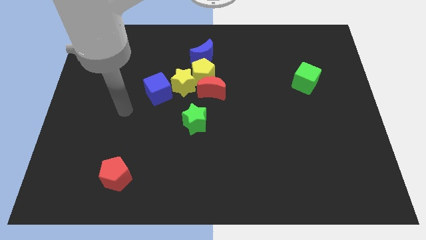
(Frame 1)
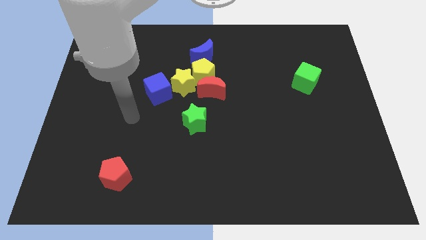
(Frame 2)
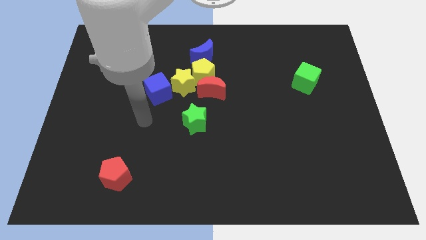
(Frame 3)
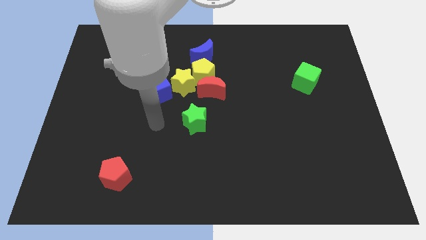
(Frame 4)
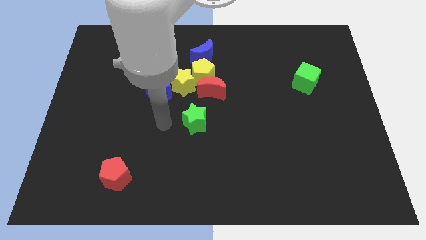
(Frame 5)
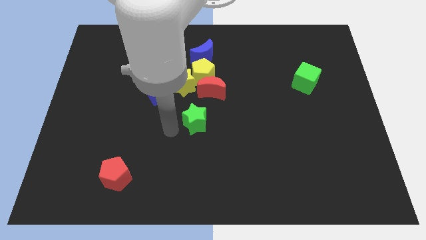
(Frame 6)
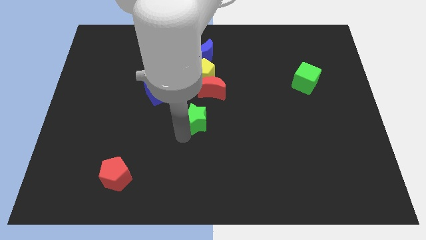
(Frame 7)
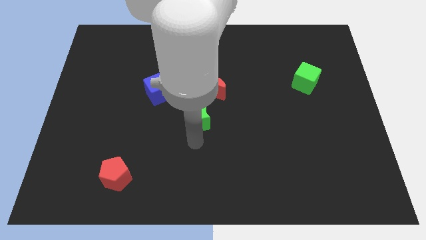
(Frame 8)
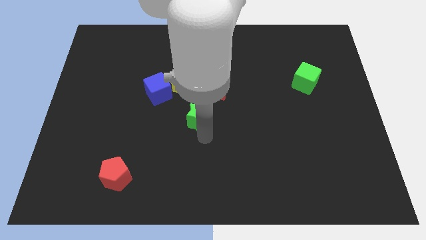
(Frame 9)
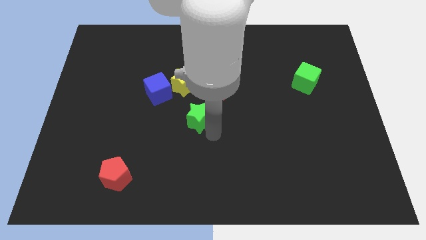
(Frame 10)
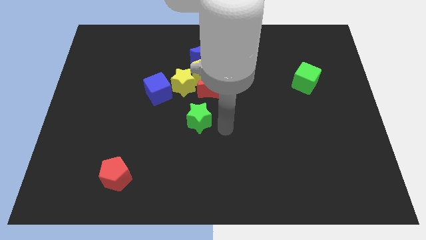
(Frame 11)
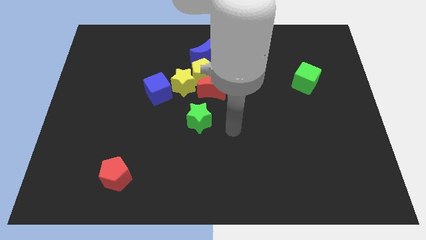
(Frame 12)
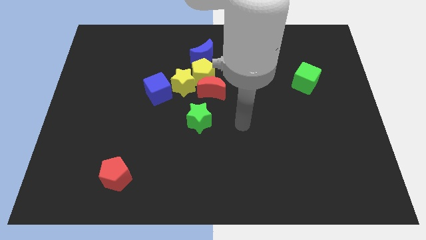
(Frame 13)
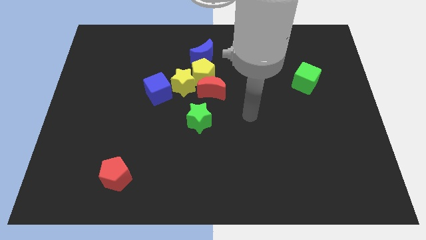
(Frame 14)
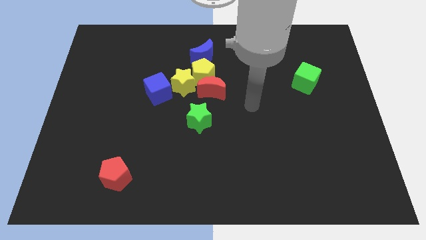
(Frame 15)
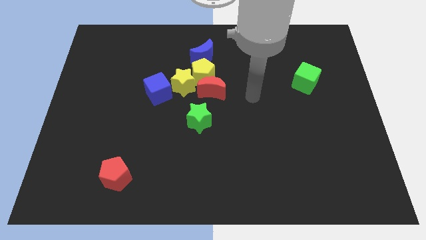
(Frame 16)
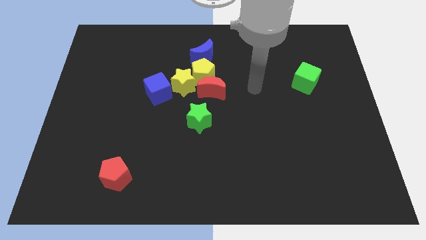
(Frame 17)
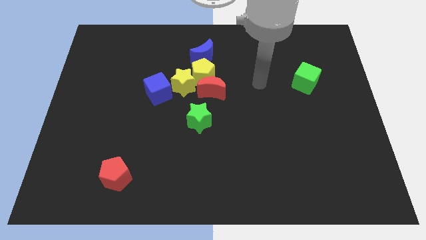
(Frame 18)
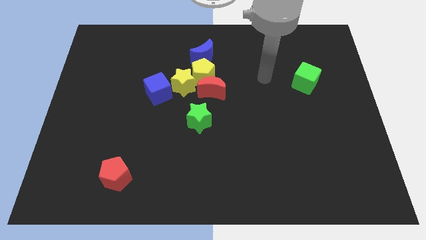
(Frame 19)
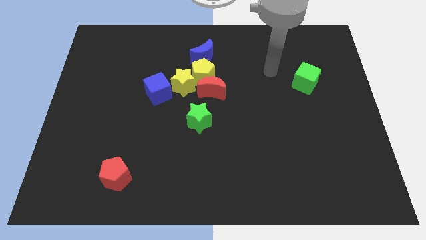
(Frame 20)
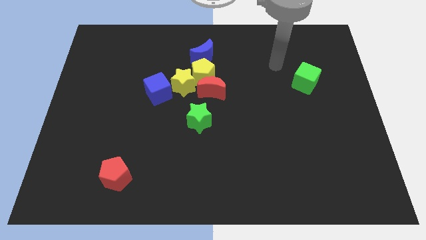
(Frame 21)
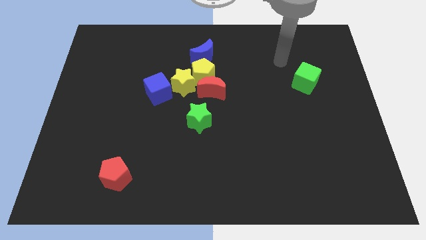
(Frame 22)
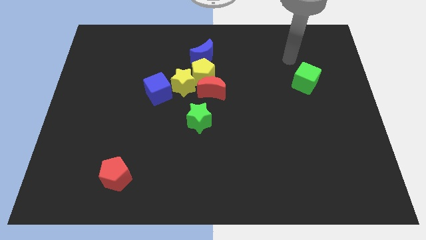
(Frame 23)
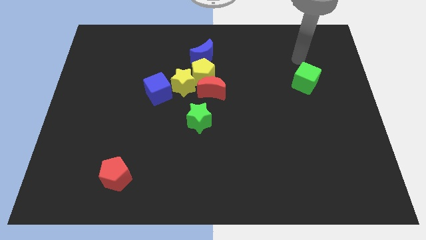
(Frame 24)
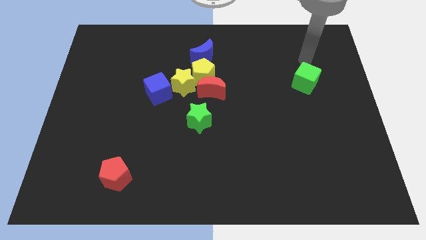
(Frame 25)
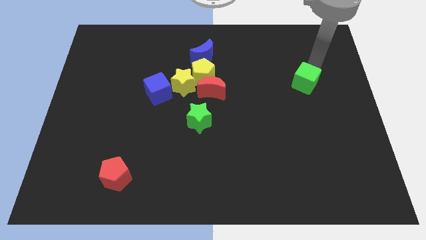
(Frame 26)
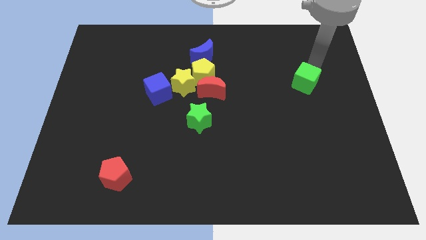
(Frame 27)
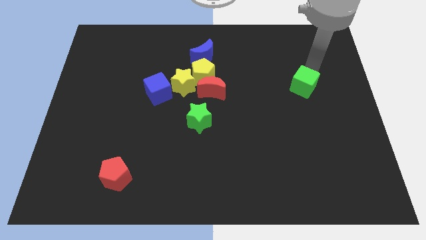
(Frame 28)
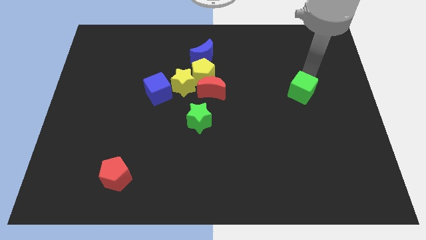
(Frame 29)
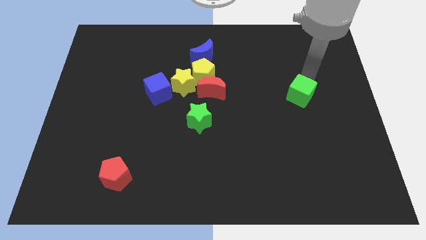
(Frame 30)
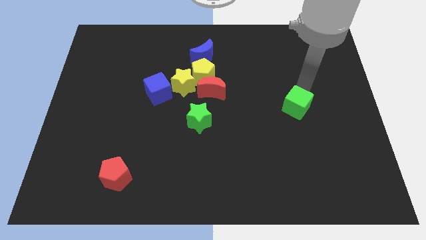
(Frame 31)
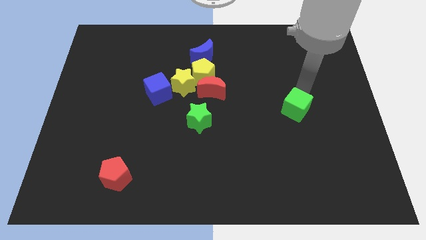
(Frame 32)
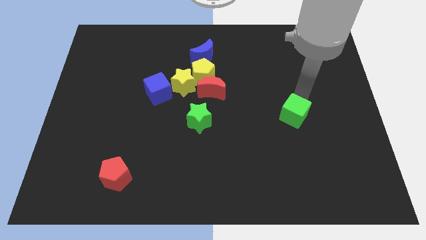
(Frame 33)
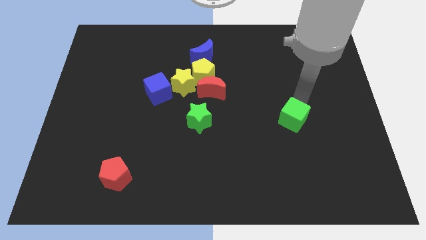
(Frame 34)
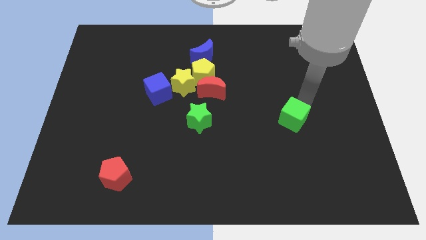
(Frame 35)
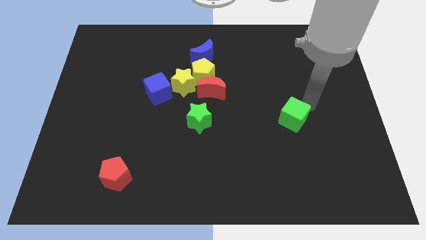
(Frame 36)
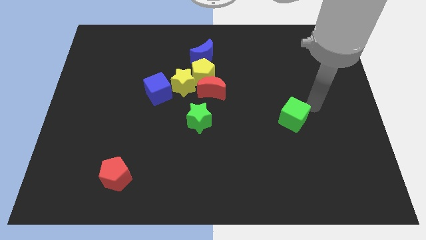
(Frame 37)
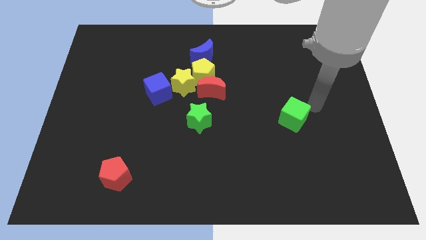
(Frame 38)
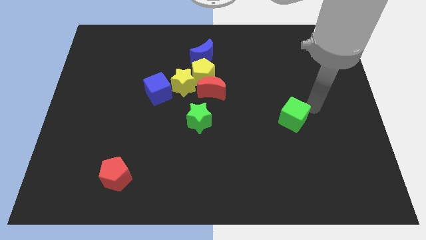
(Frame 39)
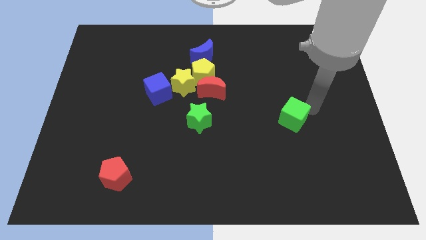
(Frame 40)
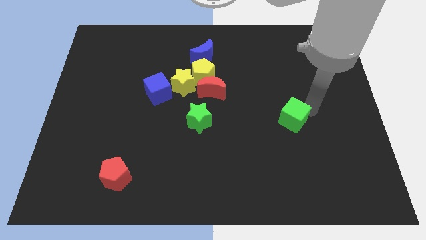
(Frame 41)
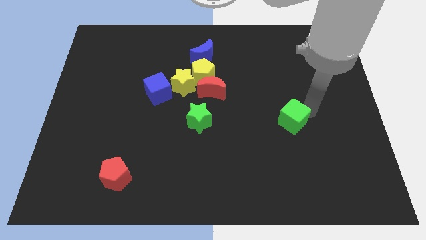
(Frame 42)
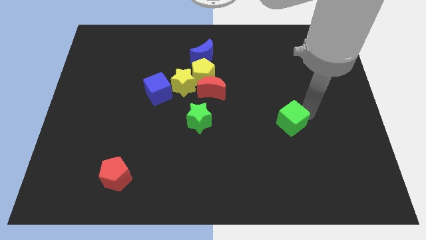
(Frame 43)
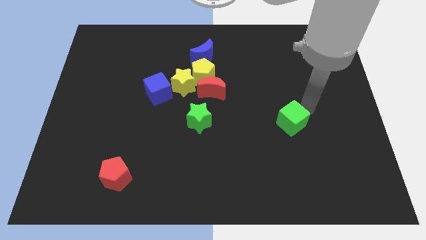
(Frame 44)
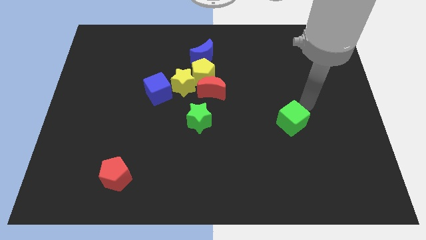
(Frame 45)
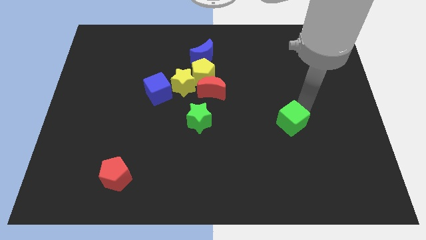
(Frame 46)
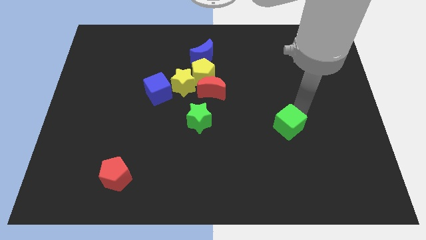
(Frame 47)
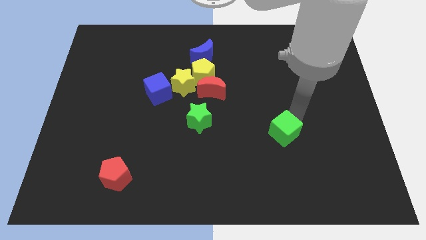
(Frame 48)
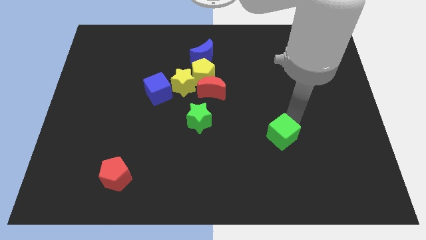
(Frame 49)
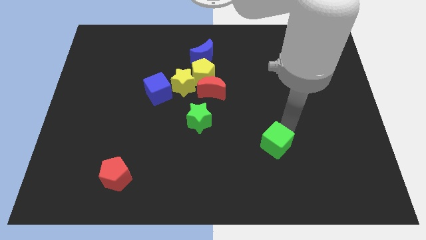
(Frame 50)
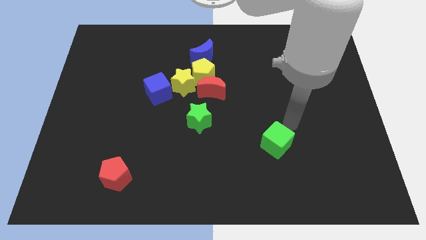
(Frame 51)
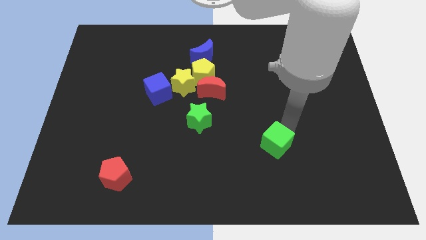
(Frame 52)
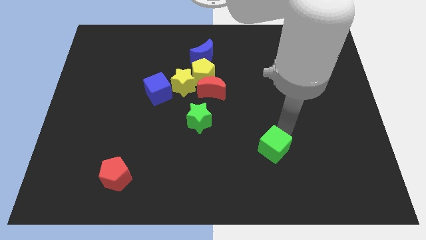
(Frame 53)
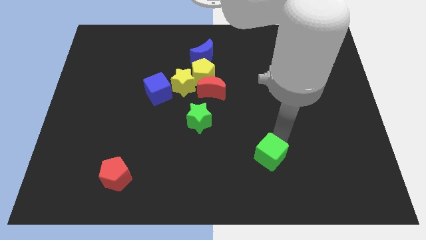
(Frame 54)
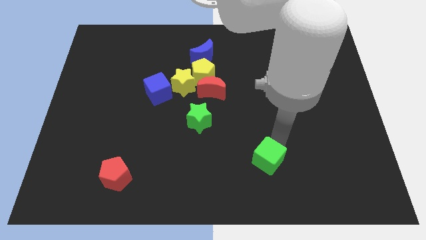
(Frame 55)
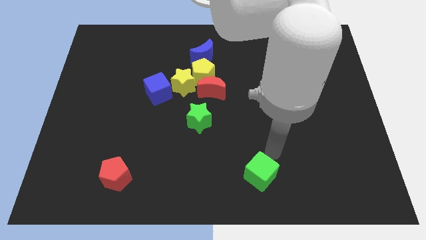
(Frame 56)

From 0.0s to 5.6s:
slide the green cube to the bottom side

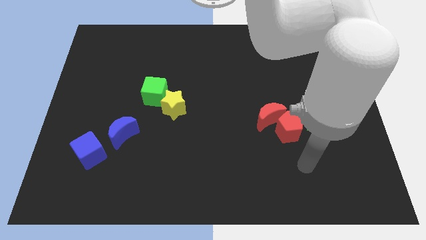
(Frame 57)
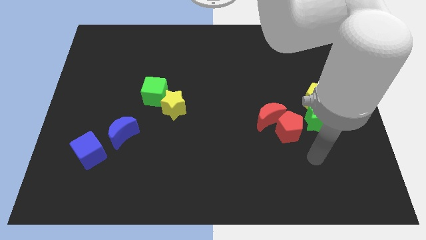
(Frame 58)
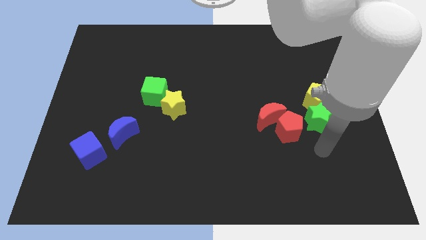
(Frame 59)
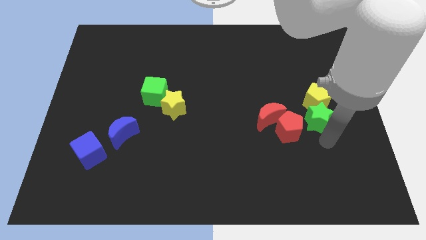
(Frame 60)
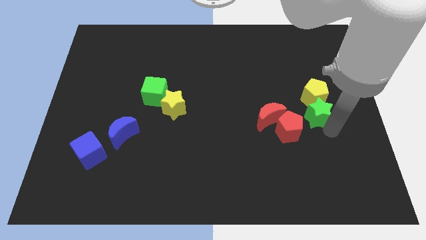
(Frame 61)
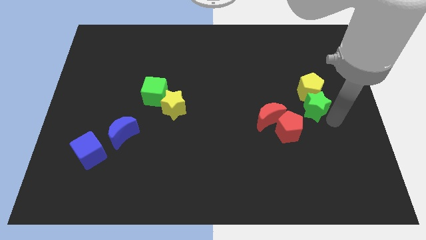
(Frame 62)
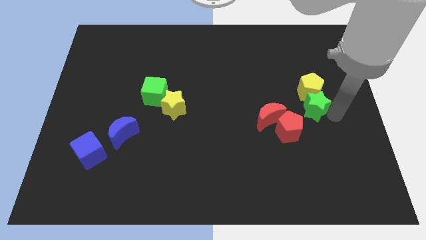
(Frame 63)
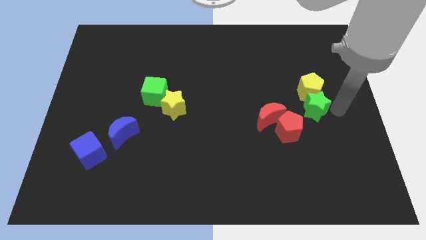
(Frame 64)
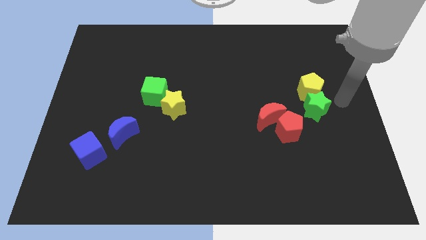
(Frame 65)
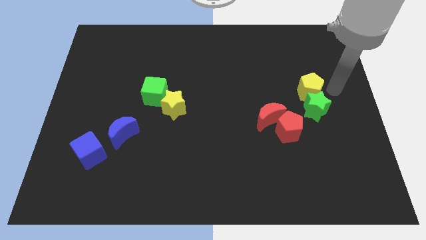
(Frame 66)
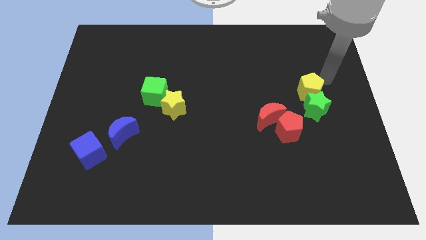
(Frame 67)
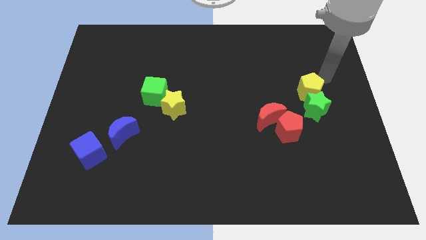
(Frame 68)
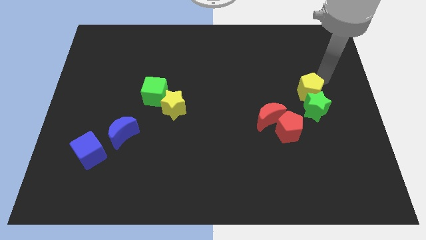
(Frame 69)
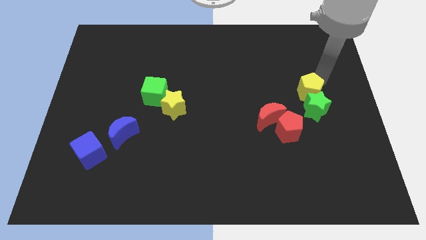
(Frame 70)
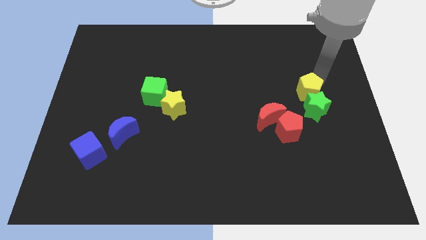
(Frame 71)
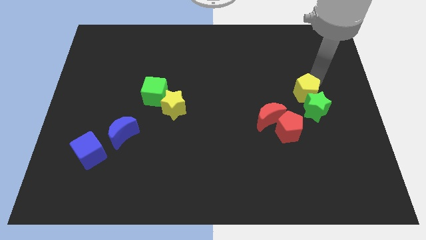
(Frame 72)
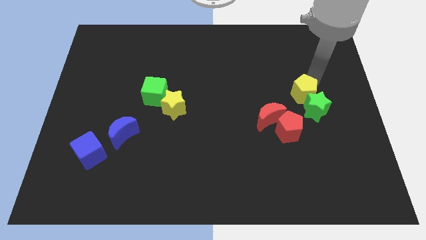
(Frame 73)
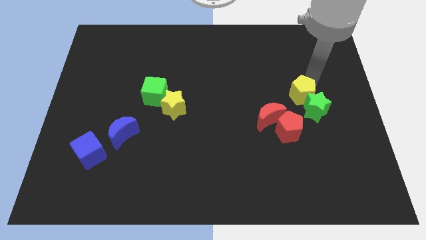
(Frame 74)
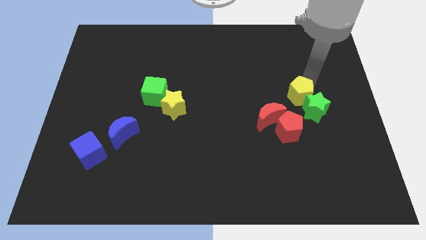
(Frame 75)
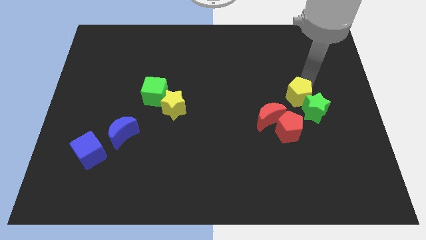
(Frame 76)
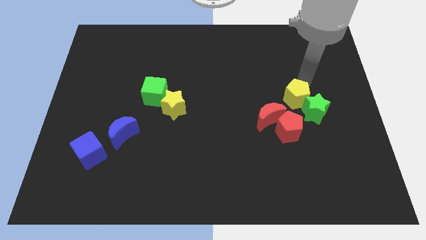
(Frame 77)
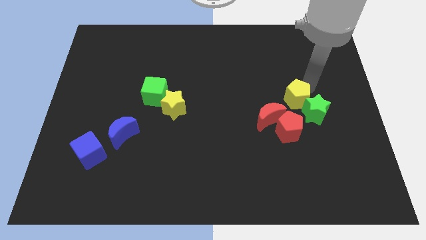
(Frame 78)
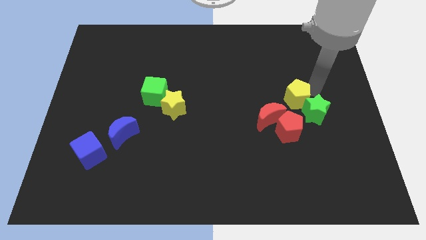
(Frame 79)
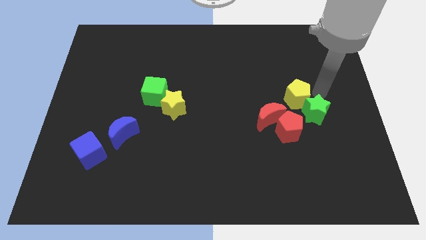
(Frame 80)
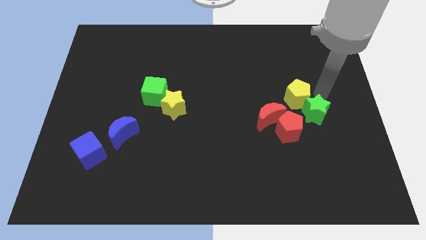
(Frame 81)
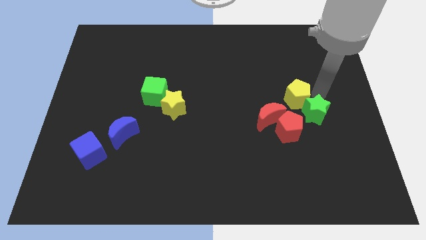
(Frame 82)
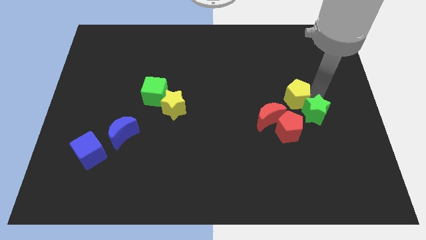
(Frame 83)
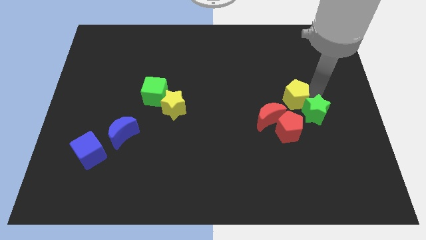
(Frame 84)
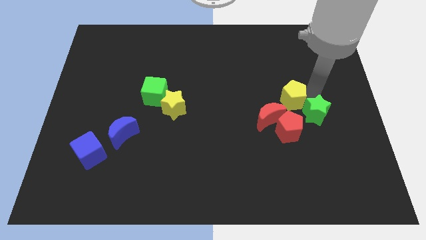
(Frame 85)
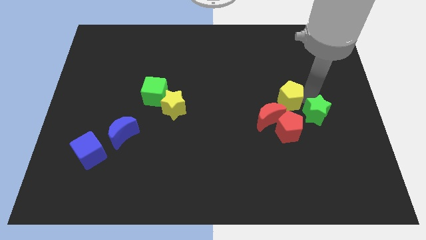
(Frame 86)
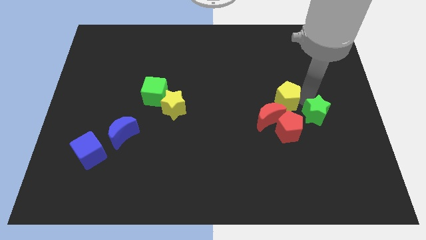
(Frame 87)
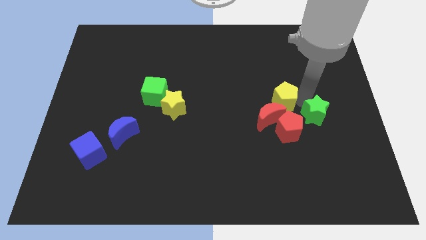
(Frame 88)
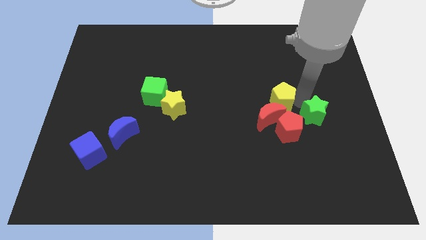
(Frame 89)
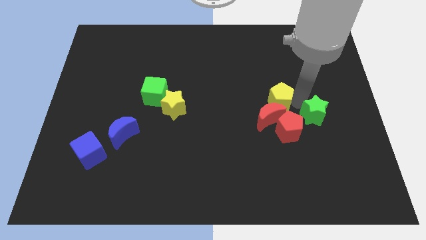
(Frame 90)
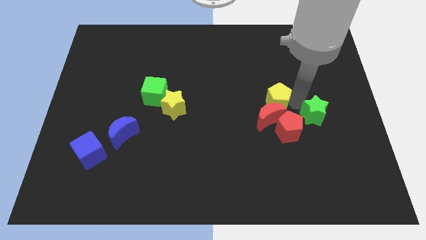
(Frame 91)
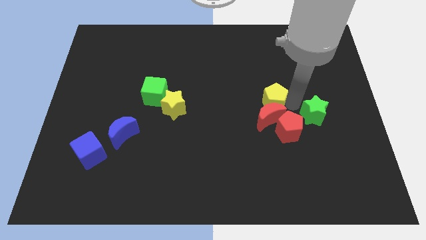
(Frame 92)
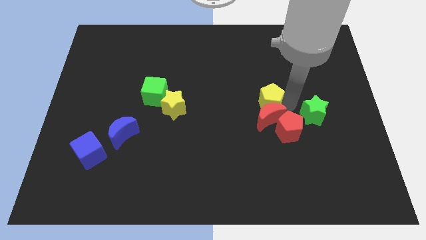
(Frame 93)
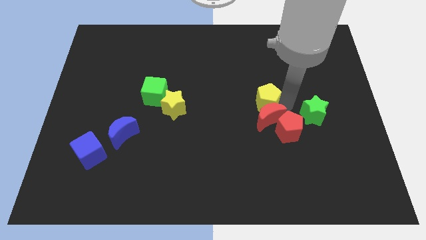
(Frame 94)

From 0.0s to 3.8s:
push the yellow pentagon to the middle of the board
